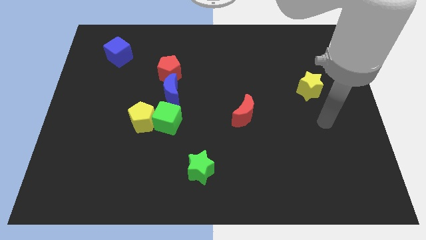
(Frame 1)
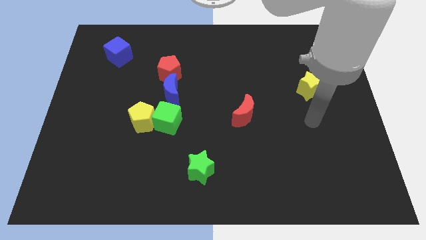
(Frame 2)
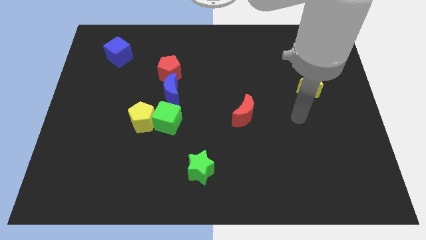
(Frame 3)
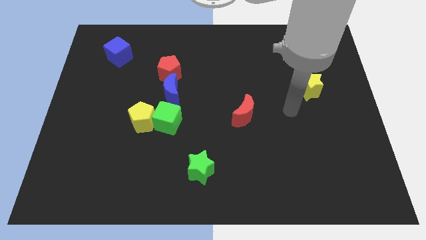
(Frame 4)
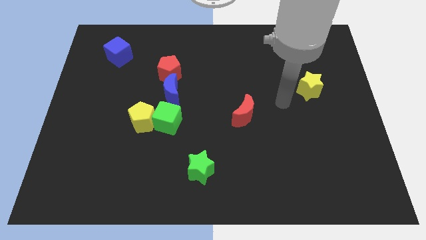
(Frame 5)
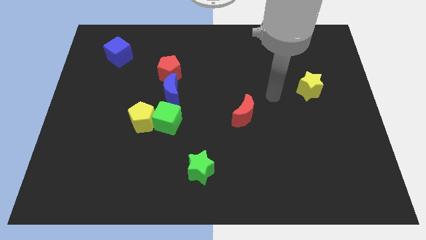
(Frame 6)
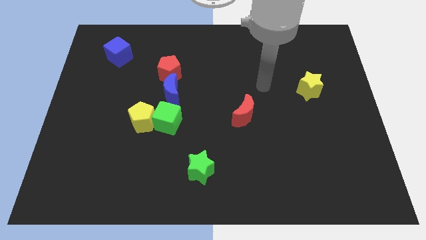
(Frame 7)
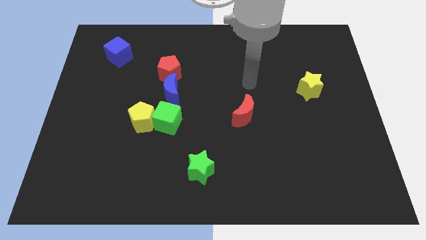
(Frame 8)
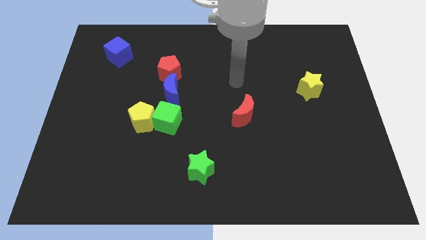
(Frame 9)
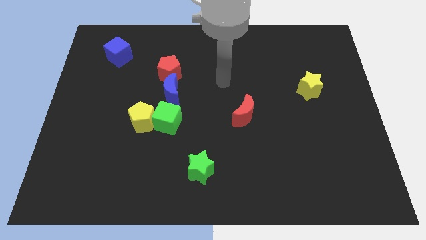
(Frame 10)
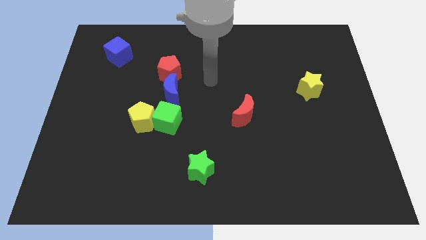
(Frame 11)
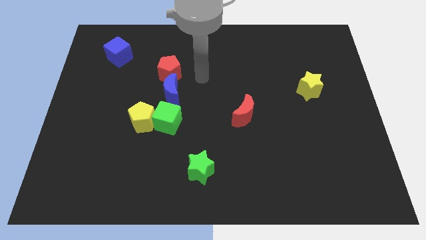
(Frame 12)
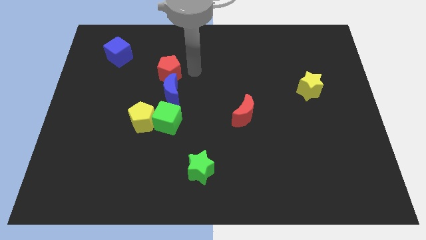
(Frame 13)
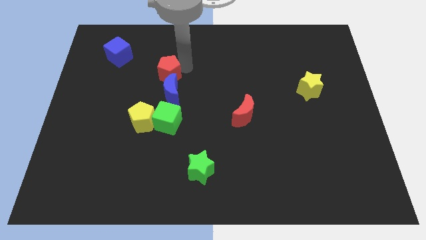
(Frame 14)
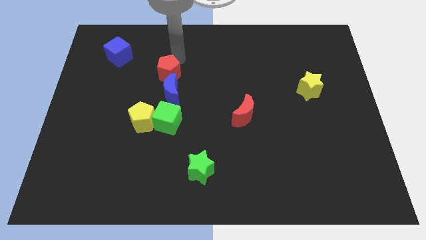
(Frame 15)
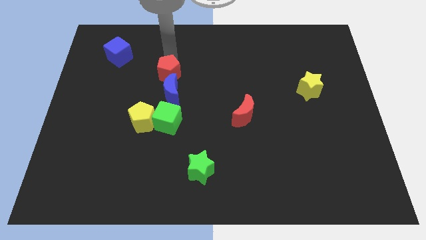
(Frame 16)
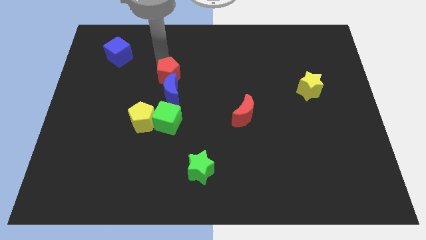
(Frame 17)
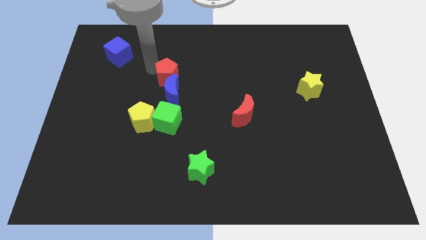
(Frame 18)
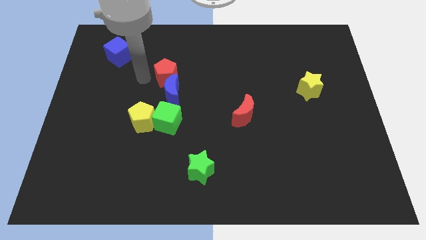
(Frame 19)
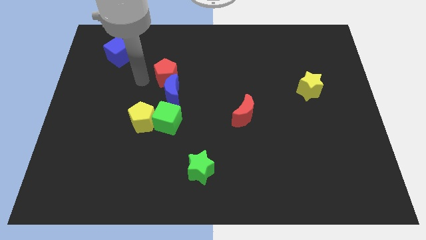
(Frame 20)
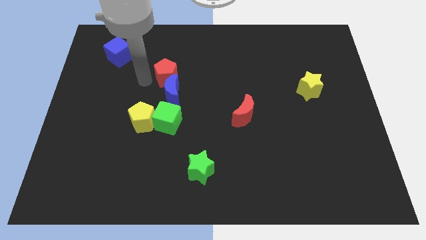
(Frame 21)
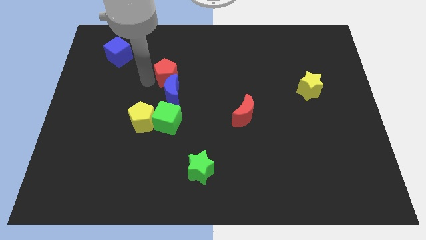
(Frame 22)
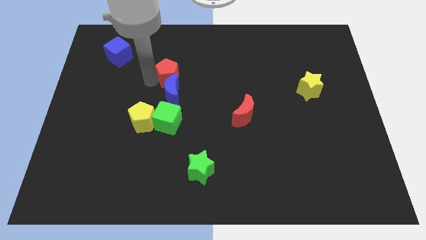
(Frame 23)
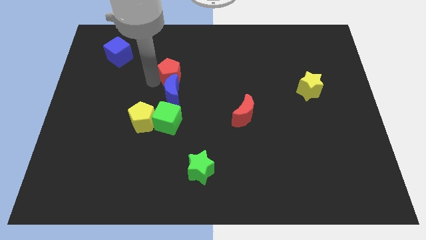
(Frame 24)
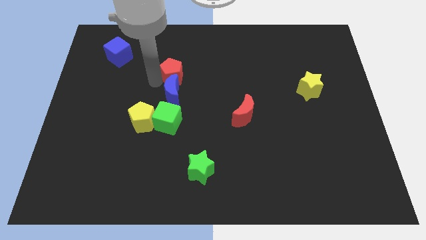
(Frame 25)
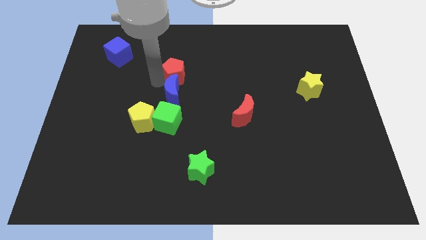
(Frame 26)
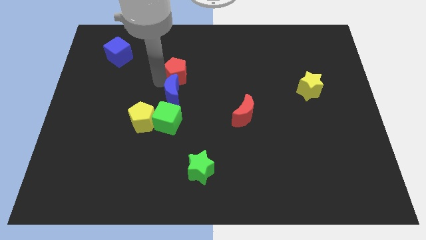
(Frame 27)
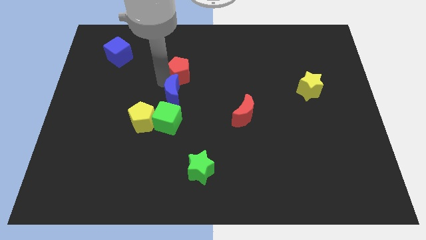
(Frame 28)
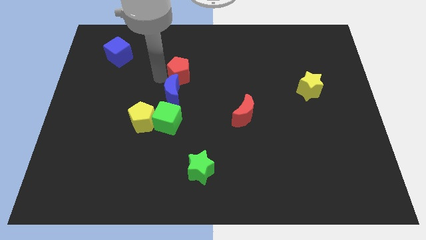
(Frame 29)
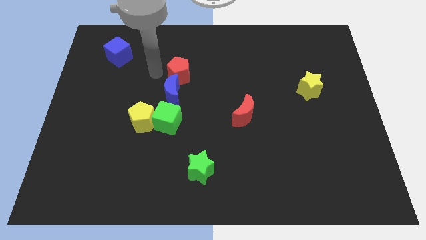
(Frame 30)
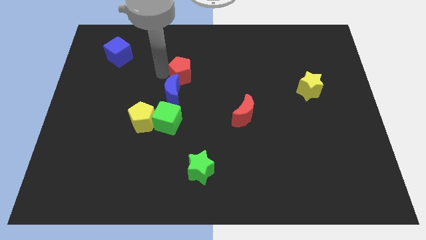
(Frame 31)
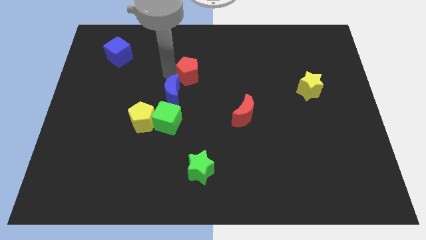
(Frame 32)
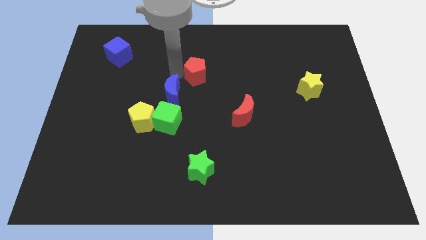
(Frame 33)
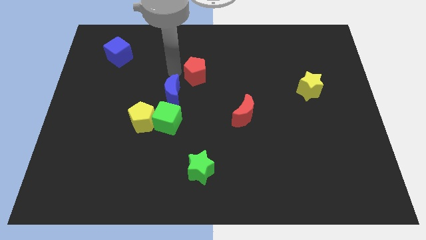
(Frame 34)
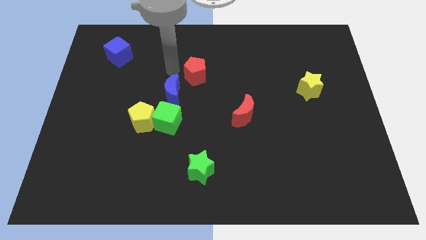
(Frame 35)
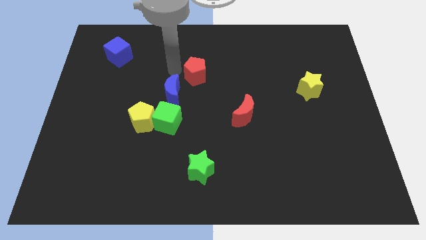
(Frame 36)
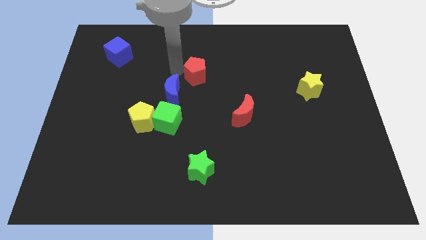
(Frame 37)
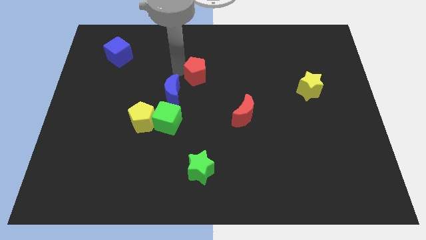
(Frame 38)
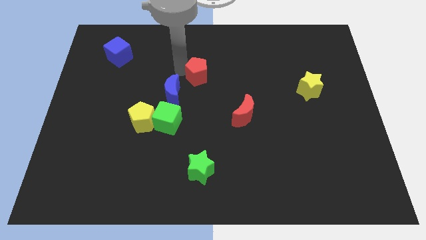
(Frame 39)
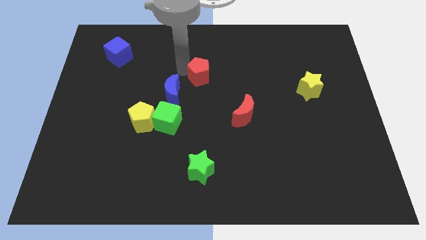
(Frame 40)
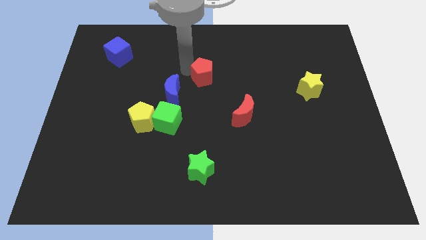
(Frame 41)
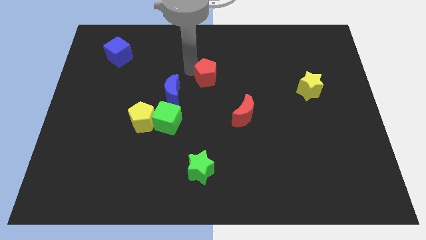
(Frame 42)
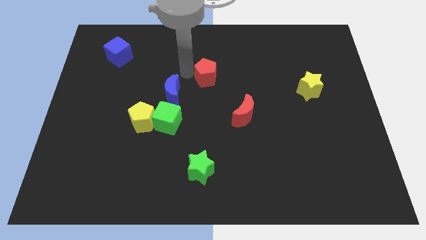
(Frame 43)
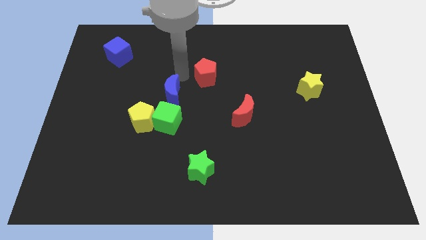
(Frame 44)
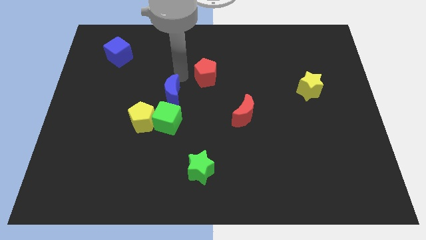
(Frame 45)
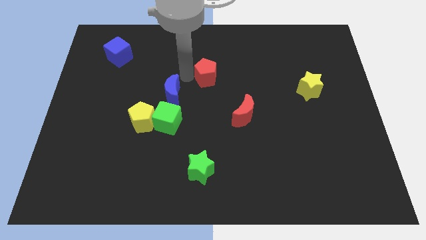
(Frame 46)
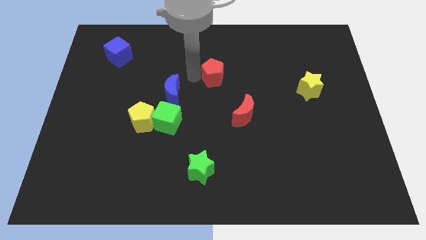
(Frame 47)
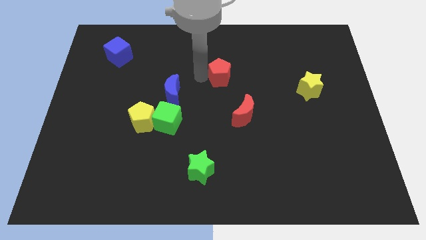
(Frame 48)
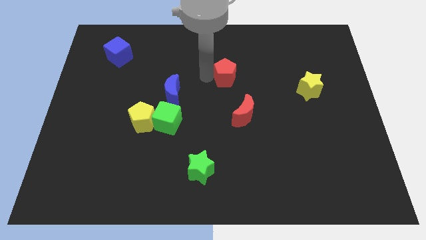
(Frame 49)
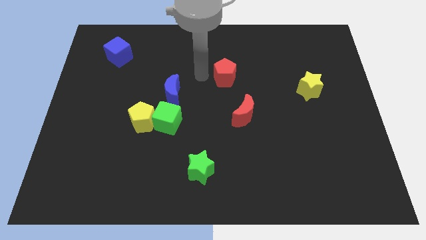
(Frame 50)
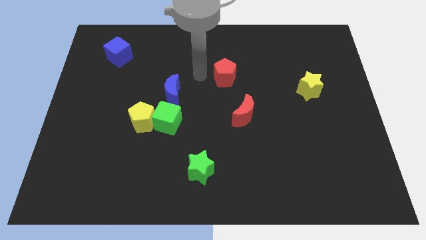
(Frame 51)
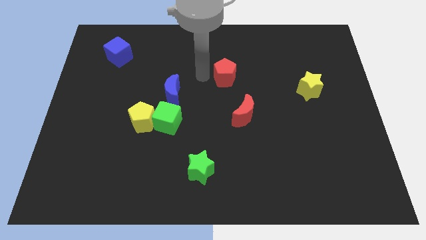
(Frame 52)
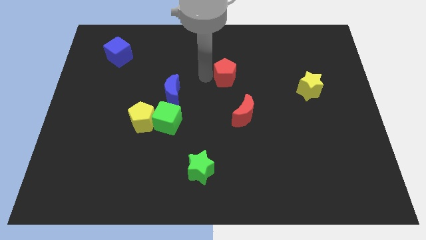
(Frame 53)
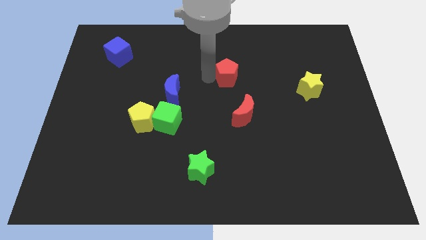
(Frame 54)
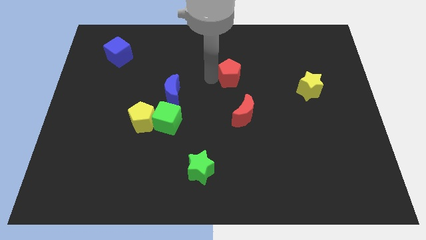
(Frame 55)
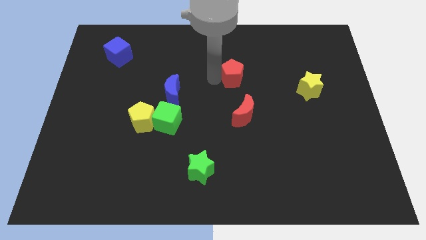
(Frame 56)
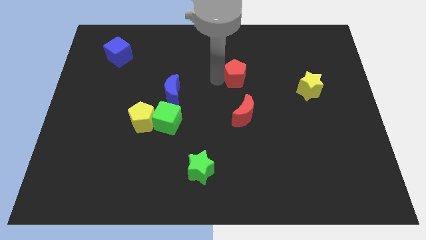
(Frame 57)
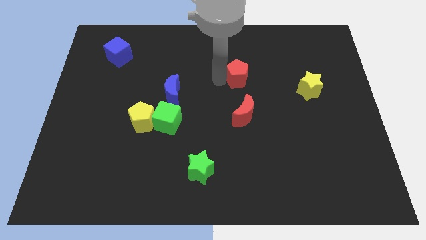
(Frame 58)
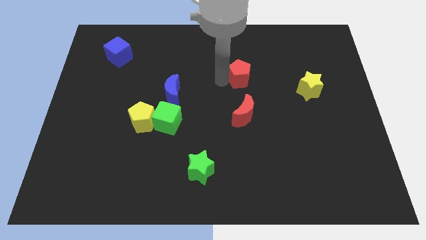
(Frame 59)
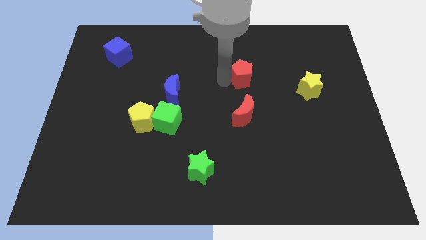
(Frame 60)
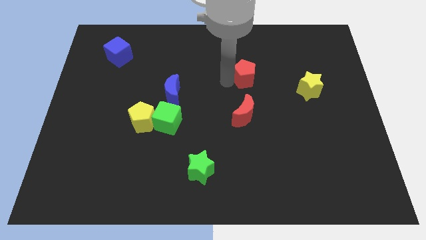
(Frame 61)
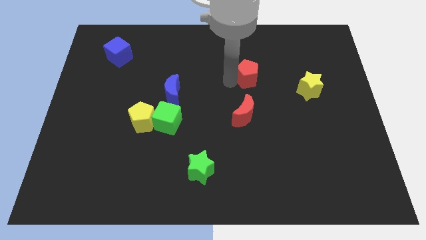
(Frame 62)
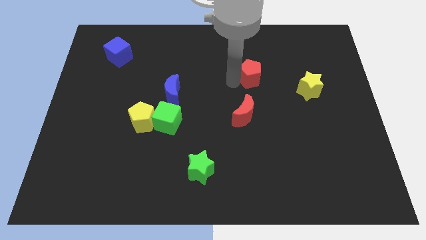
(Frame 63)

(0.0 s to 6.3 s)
slide the red pentagon right

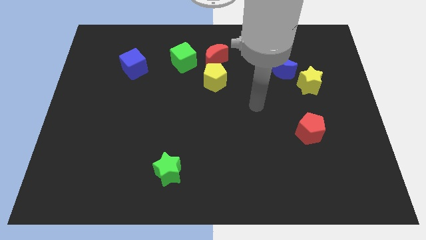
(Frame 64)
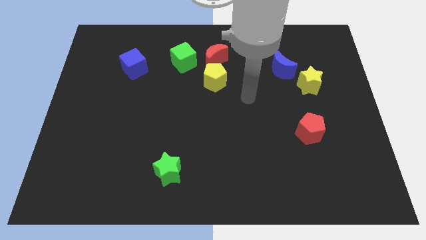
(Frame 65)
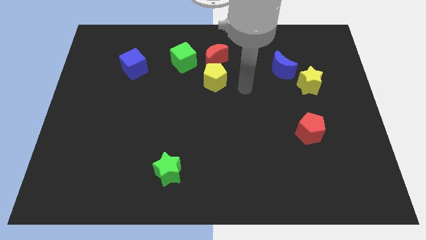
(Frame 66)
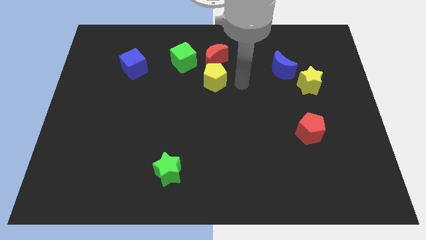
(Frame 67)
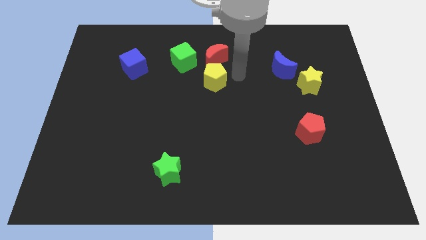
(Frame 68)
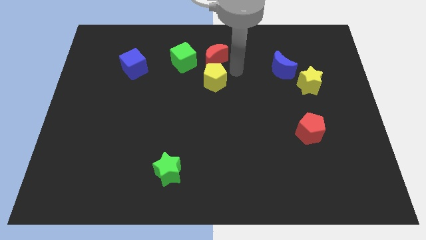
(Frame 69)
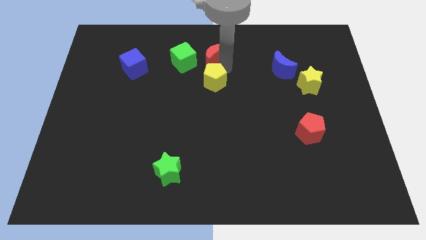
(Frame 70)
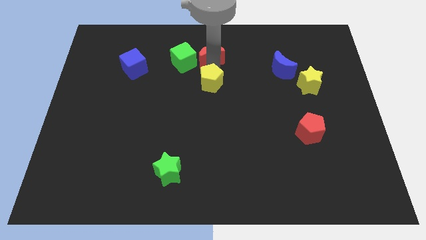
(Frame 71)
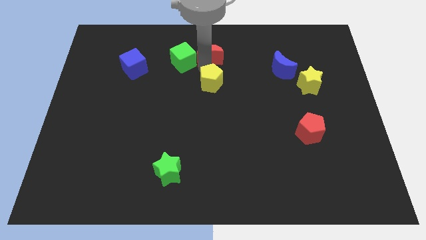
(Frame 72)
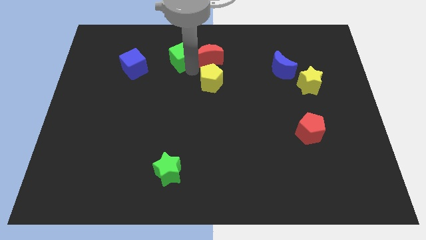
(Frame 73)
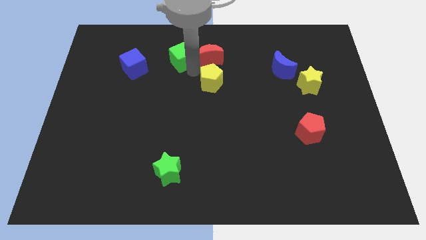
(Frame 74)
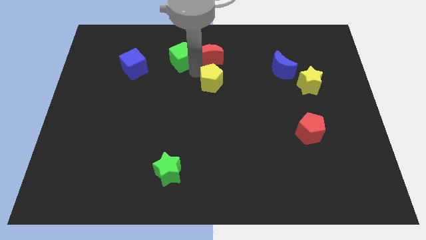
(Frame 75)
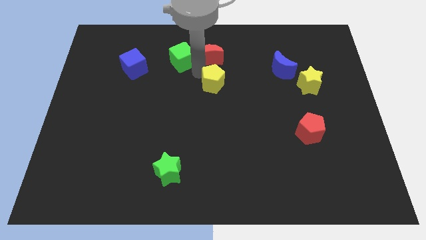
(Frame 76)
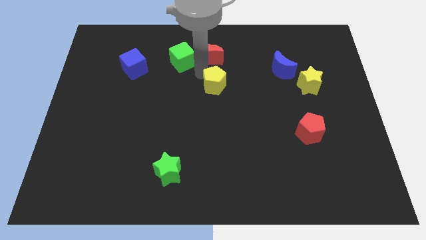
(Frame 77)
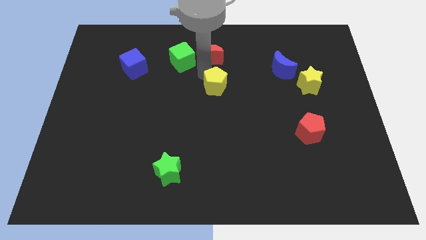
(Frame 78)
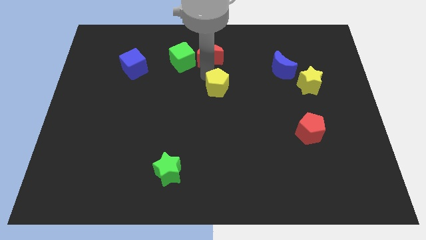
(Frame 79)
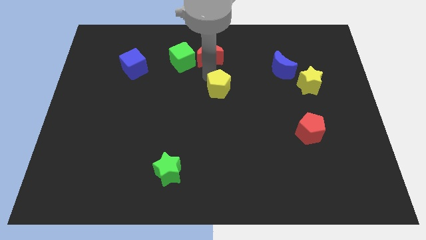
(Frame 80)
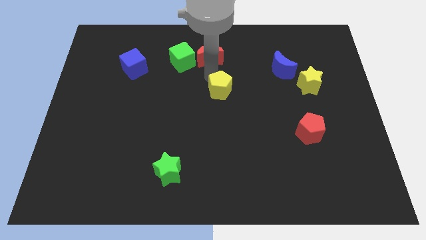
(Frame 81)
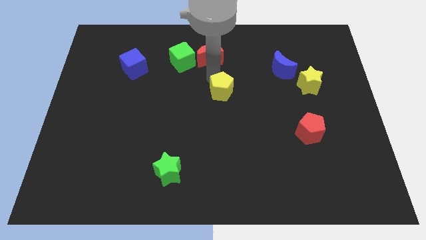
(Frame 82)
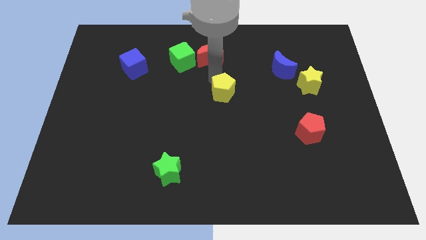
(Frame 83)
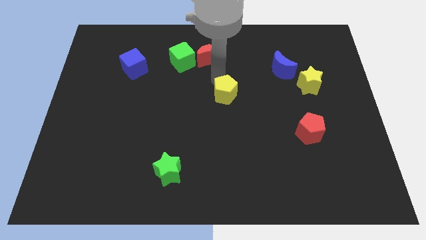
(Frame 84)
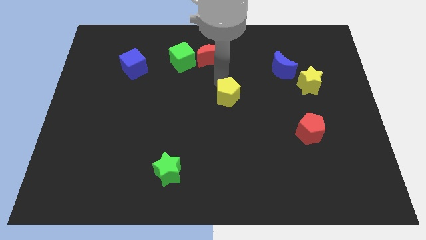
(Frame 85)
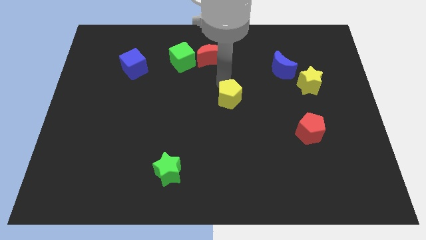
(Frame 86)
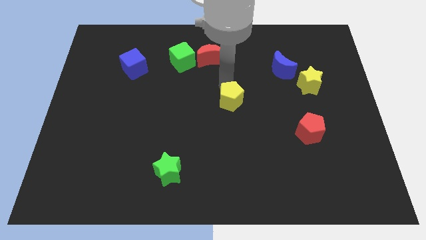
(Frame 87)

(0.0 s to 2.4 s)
push the yellow pentagon down and then right a bit
